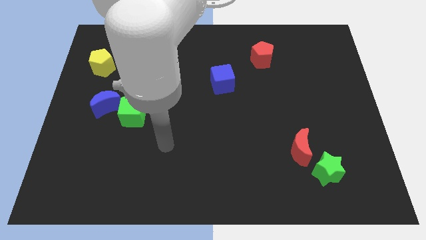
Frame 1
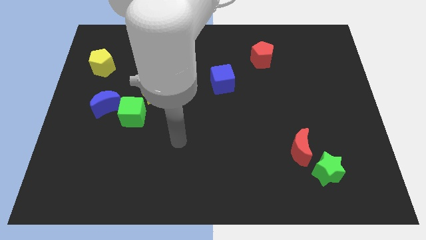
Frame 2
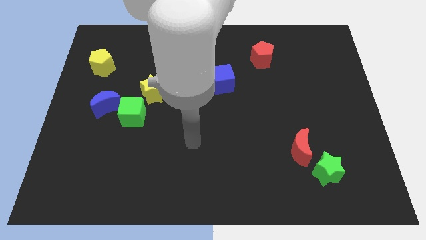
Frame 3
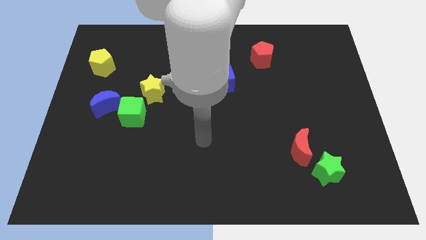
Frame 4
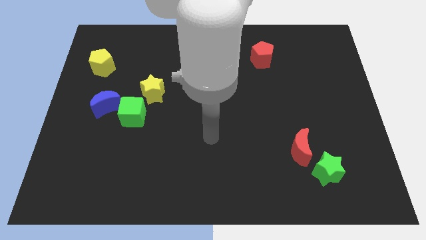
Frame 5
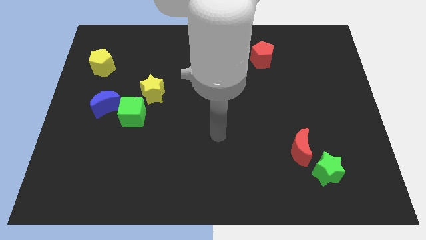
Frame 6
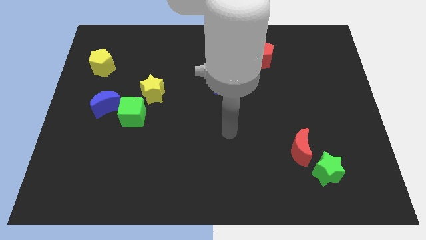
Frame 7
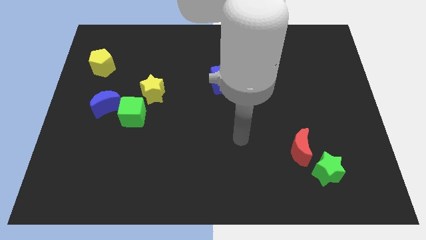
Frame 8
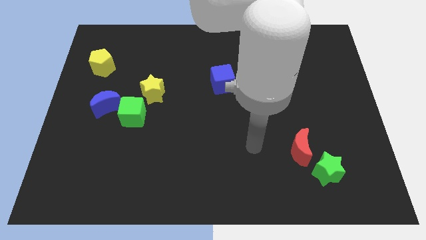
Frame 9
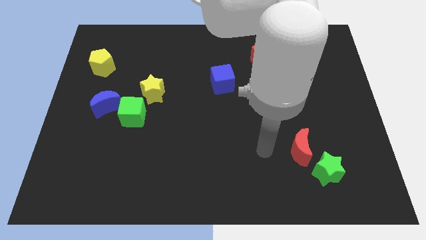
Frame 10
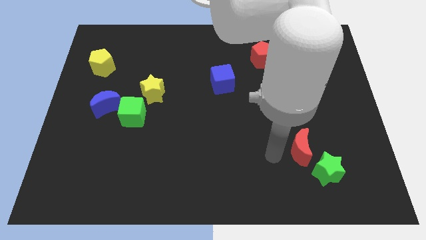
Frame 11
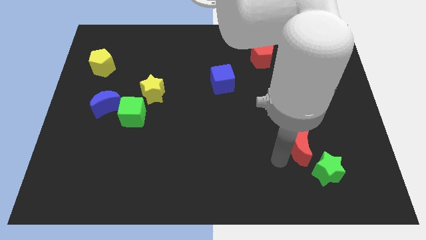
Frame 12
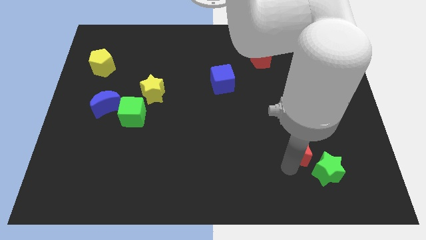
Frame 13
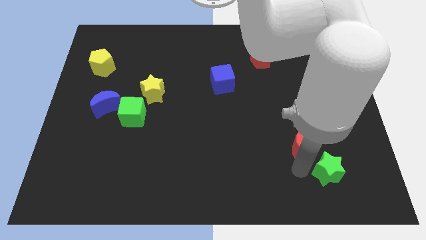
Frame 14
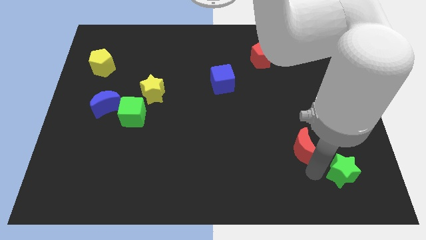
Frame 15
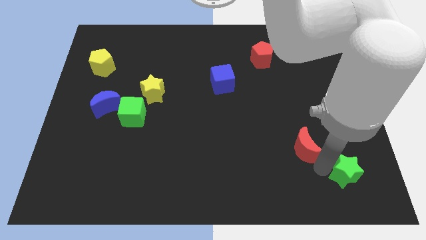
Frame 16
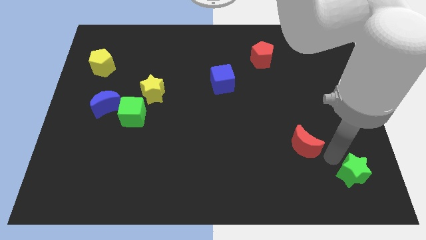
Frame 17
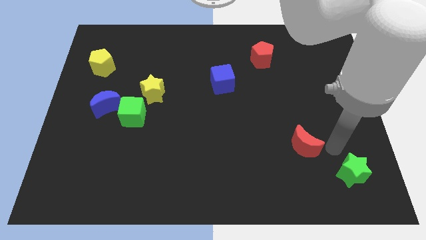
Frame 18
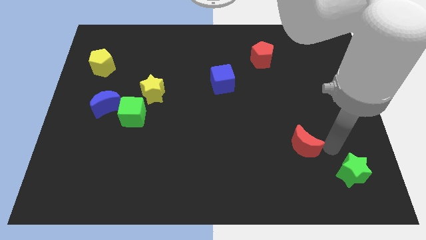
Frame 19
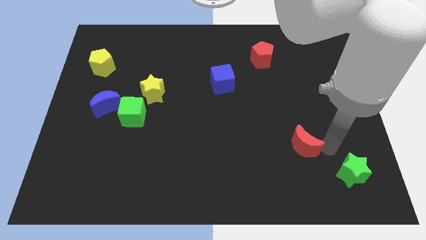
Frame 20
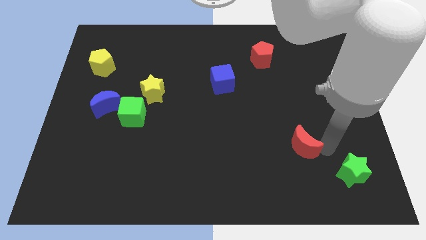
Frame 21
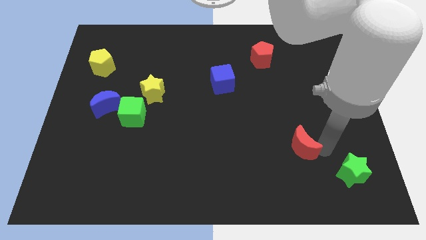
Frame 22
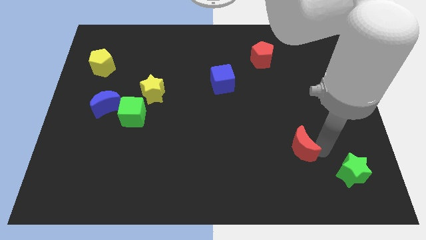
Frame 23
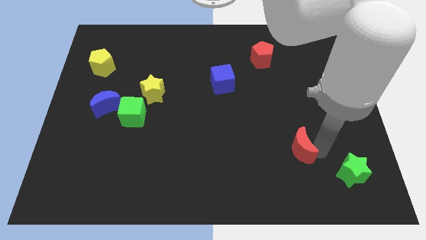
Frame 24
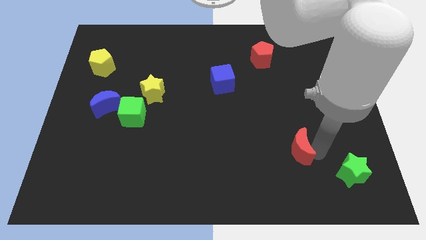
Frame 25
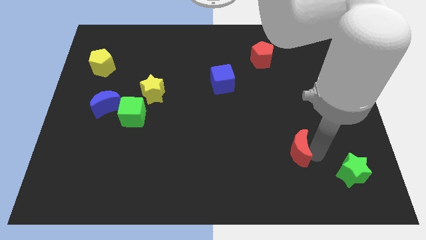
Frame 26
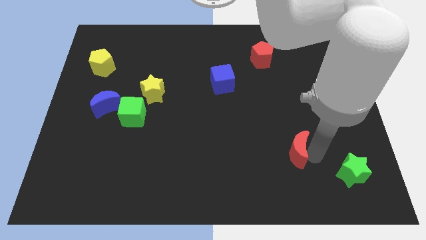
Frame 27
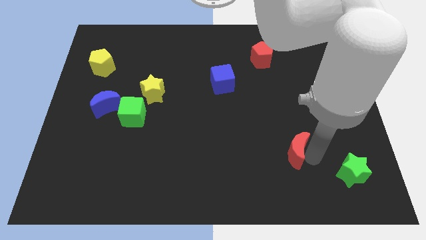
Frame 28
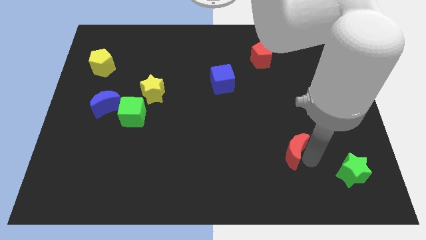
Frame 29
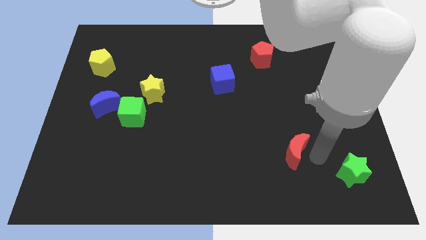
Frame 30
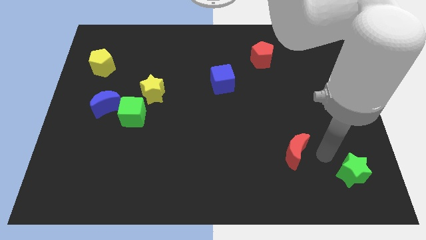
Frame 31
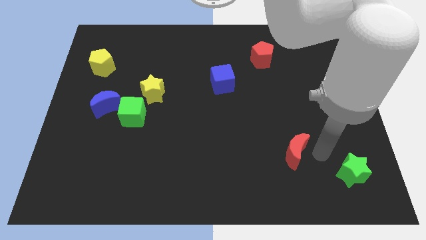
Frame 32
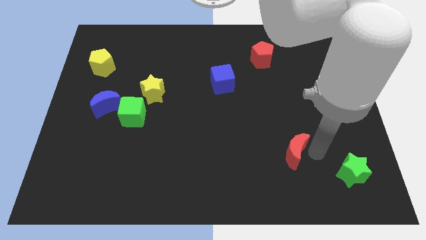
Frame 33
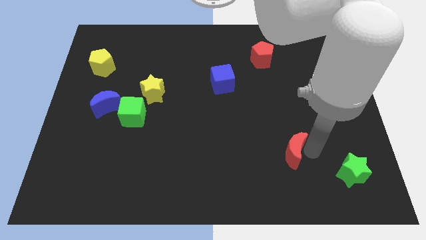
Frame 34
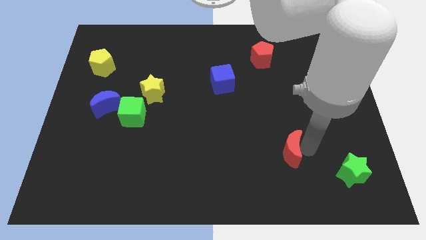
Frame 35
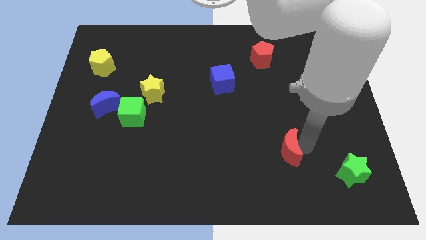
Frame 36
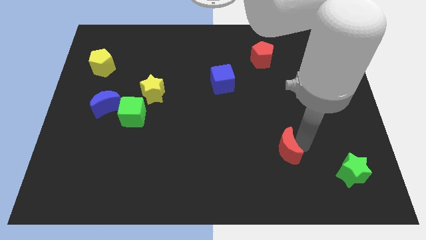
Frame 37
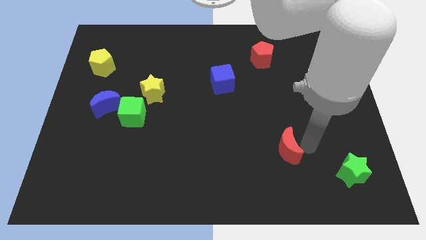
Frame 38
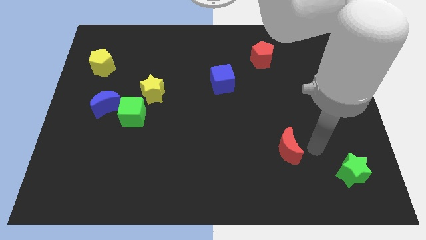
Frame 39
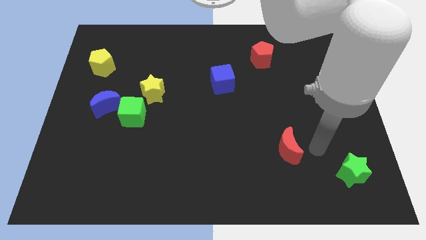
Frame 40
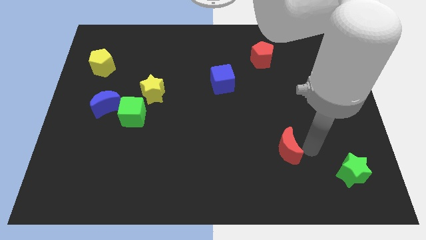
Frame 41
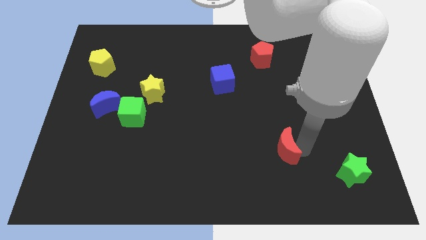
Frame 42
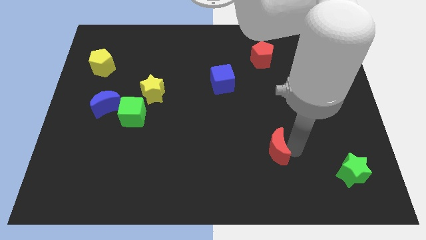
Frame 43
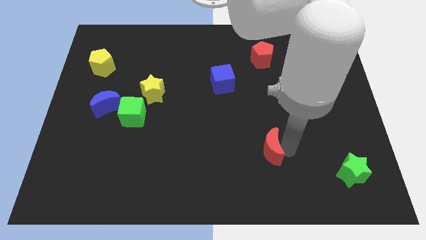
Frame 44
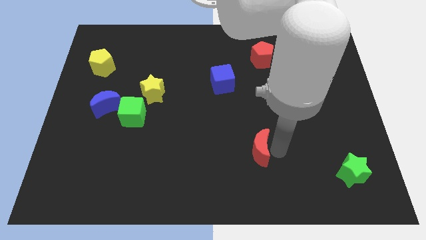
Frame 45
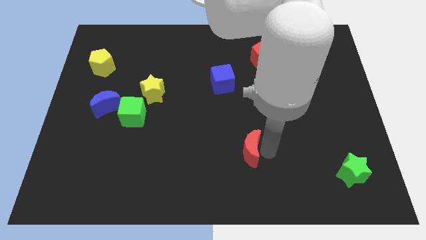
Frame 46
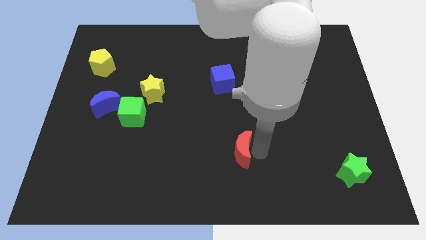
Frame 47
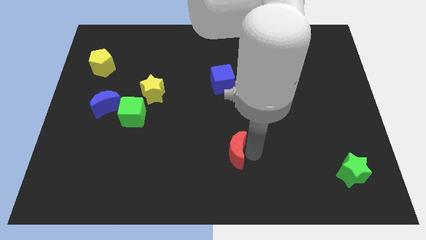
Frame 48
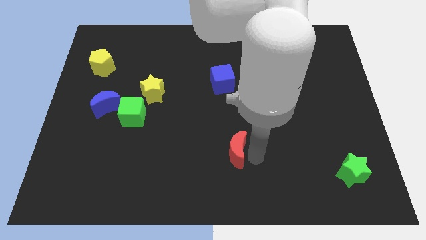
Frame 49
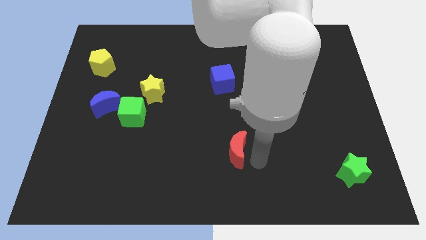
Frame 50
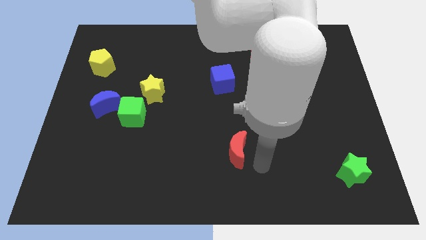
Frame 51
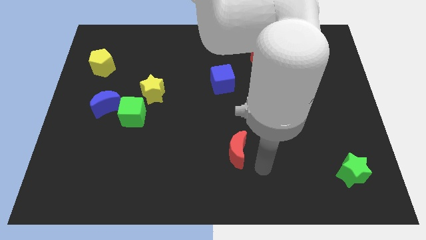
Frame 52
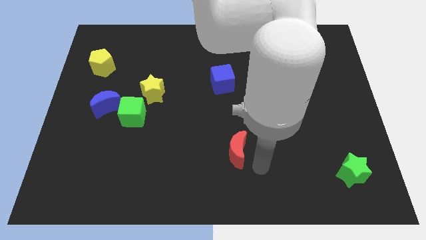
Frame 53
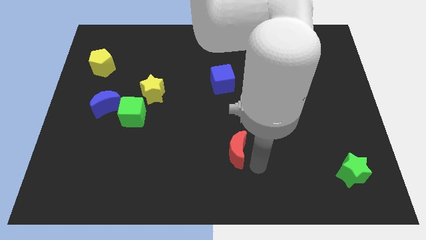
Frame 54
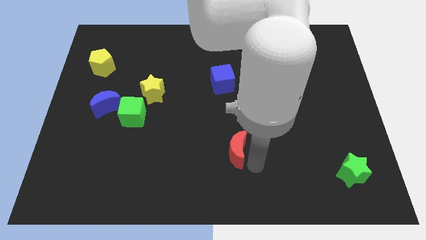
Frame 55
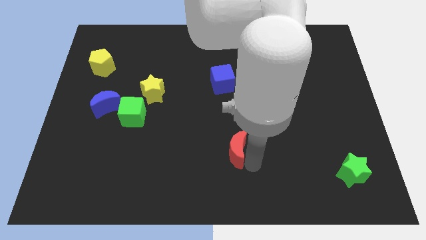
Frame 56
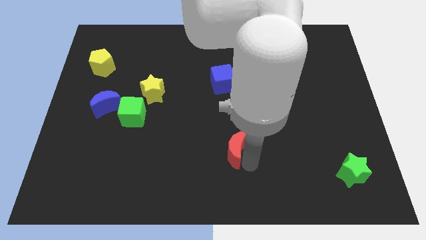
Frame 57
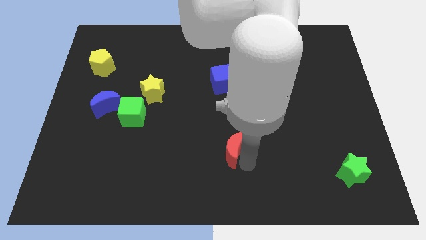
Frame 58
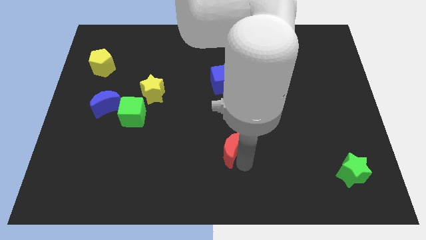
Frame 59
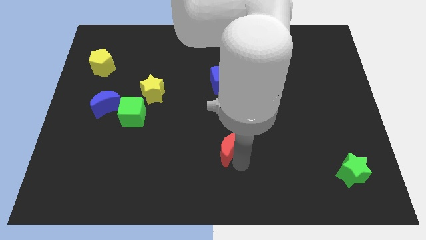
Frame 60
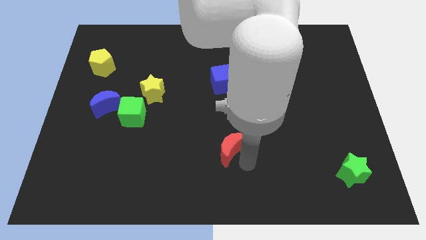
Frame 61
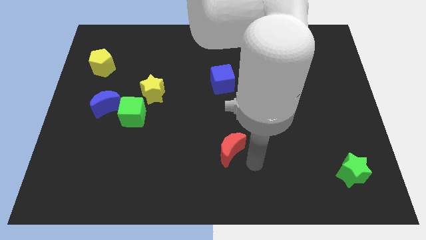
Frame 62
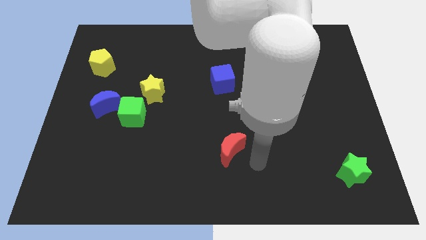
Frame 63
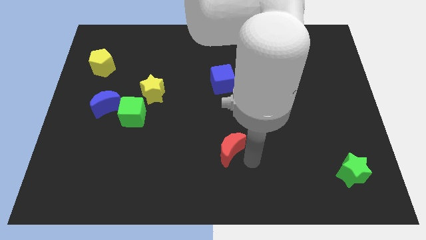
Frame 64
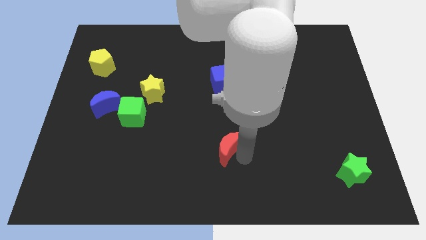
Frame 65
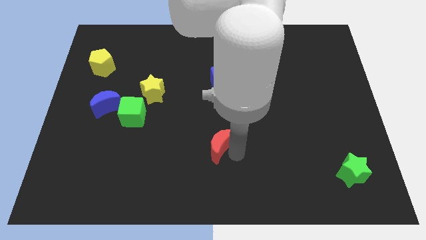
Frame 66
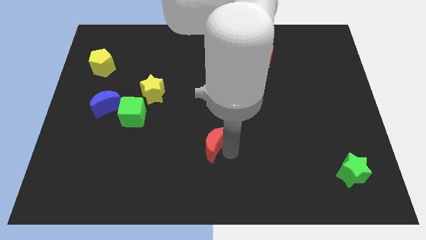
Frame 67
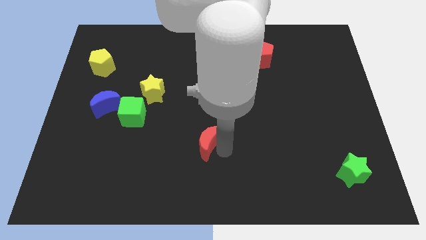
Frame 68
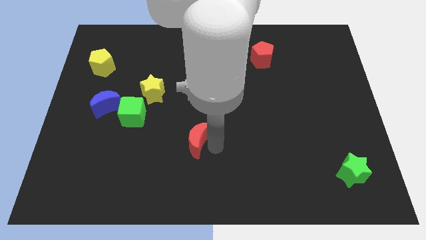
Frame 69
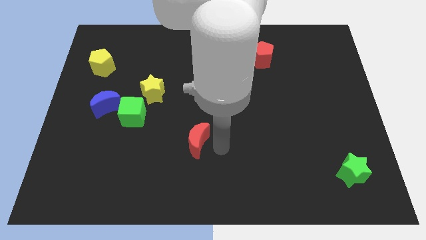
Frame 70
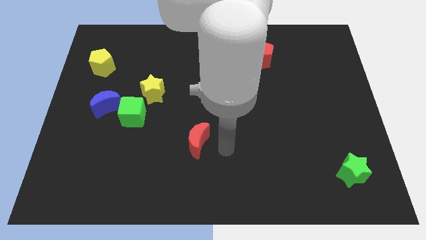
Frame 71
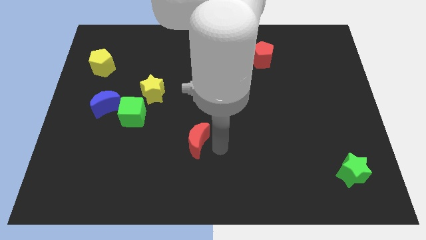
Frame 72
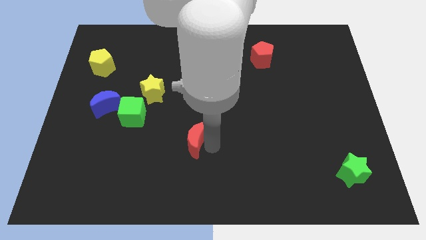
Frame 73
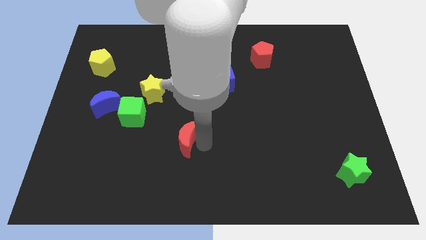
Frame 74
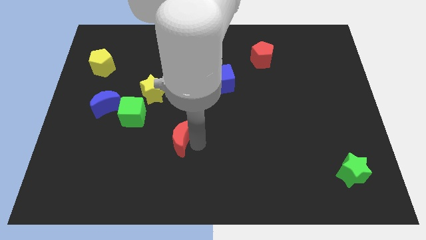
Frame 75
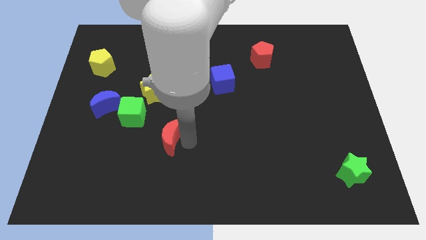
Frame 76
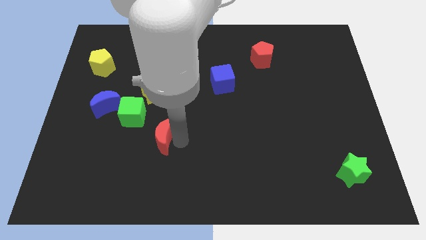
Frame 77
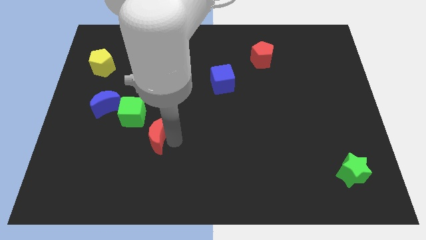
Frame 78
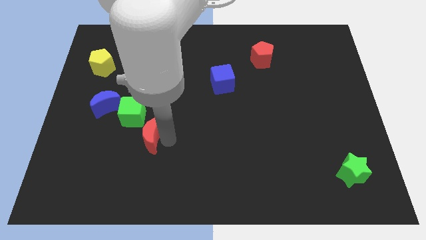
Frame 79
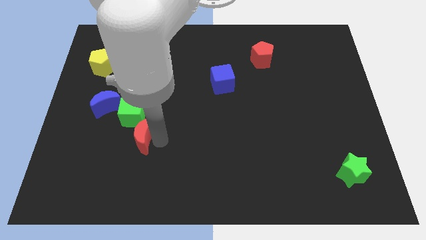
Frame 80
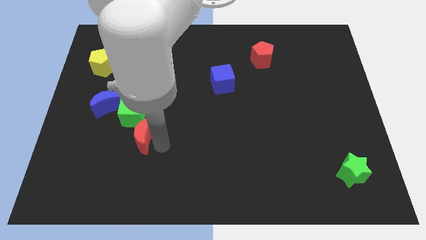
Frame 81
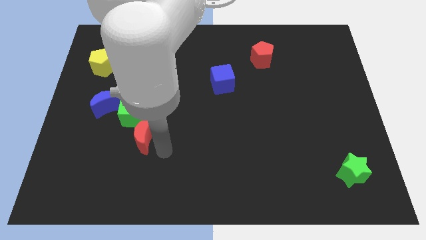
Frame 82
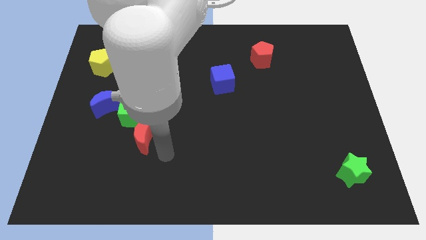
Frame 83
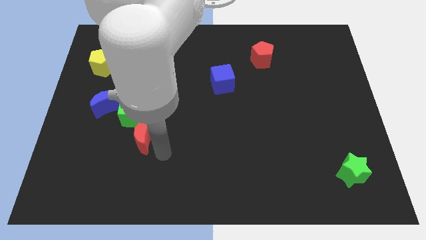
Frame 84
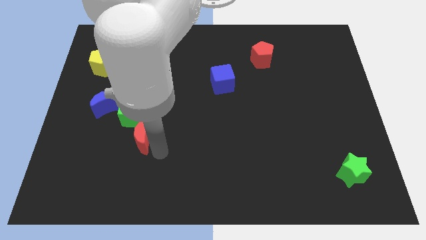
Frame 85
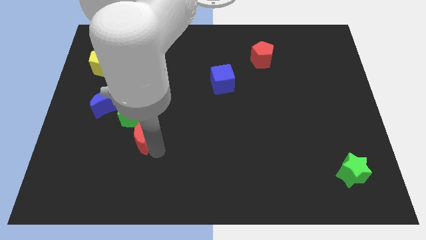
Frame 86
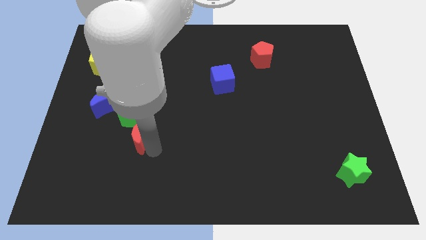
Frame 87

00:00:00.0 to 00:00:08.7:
put the red moon diagonally down and to the right of the blue moon
